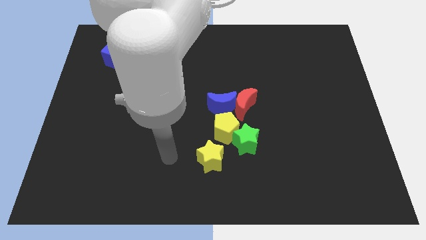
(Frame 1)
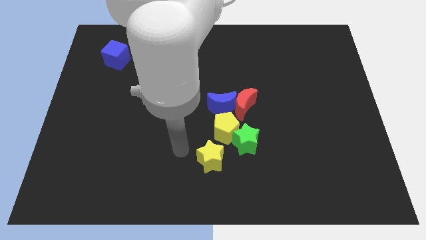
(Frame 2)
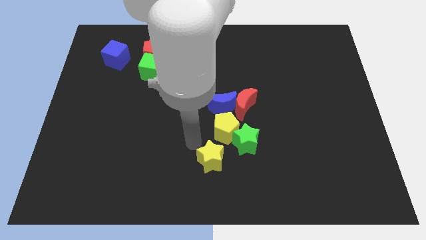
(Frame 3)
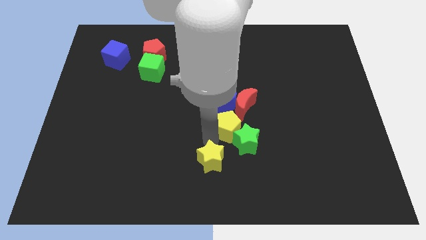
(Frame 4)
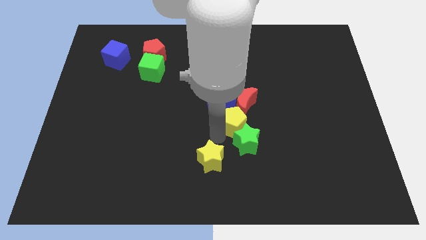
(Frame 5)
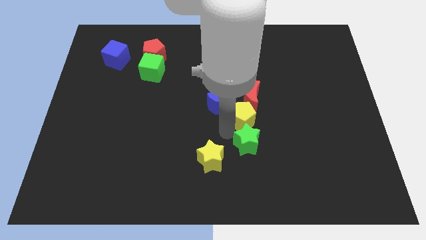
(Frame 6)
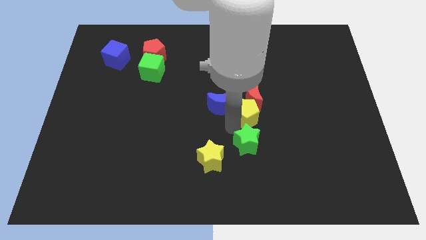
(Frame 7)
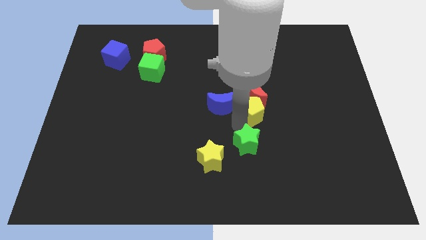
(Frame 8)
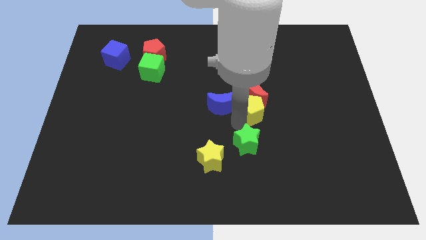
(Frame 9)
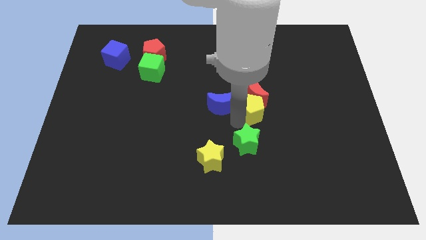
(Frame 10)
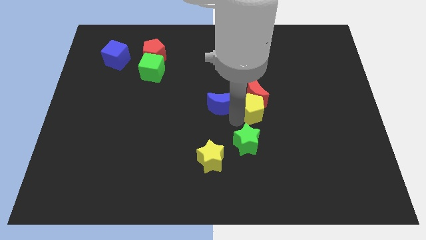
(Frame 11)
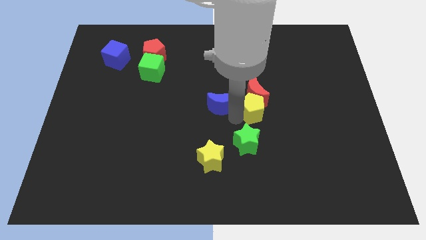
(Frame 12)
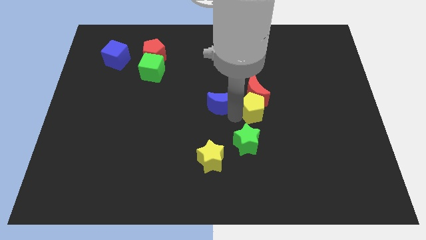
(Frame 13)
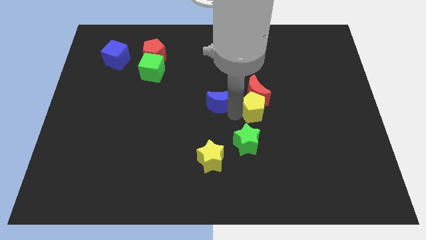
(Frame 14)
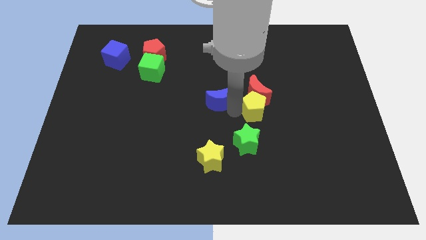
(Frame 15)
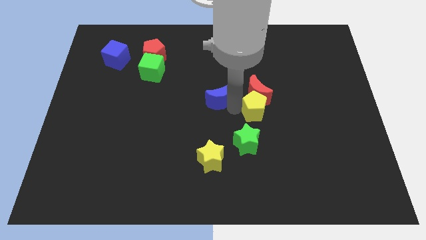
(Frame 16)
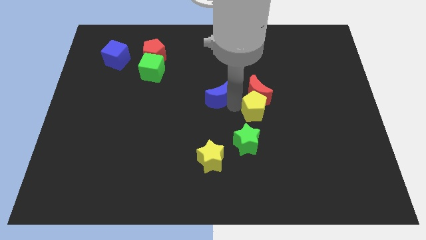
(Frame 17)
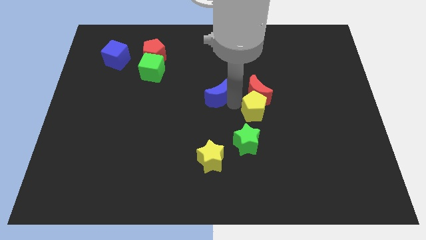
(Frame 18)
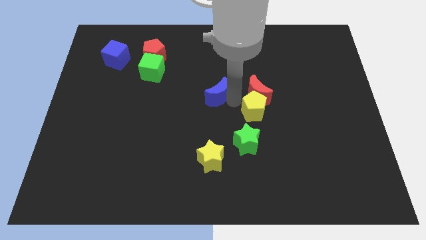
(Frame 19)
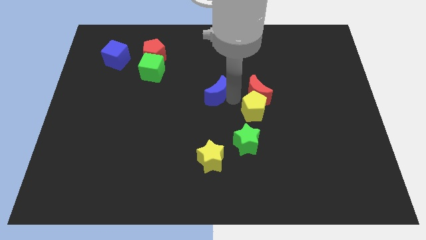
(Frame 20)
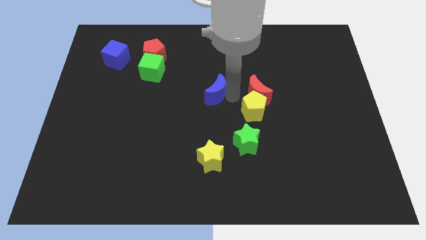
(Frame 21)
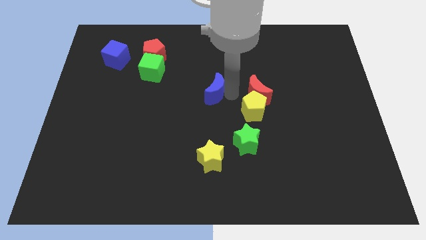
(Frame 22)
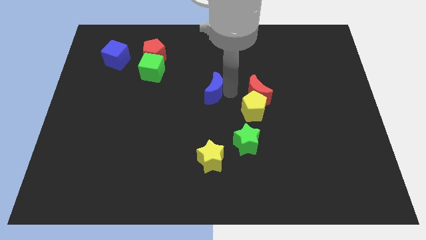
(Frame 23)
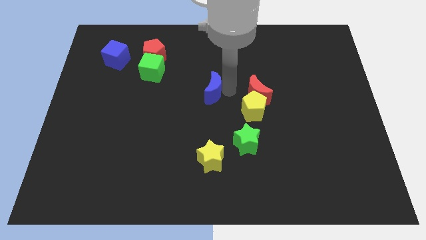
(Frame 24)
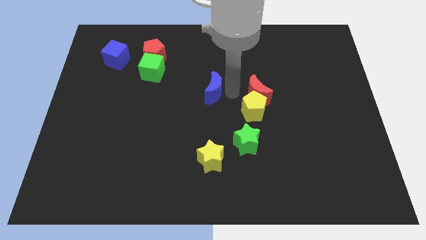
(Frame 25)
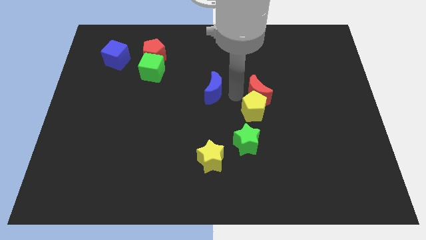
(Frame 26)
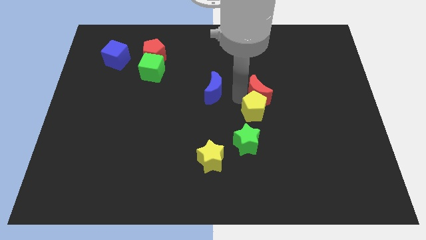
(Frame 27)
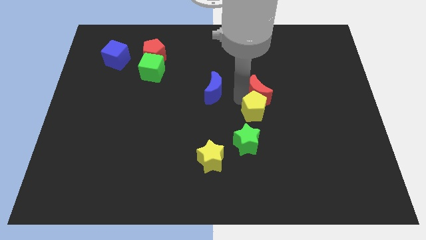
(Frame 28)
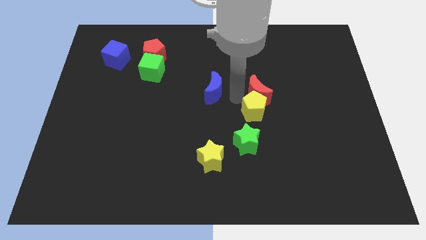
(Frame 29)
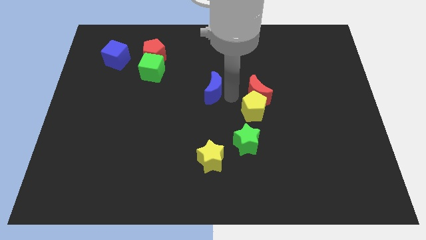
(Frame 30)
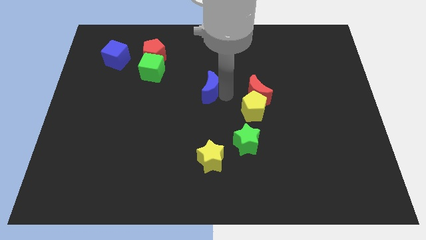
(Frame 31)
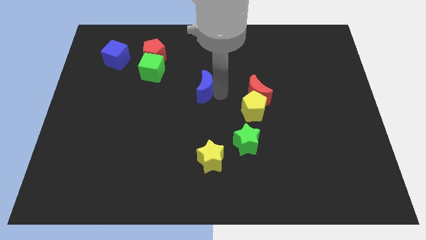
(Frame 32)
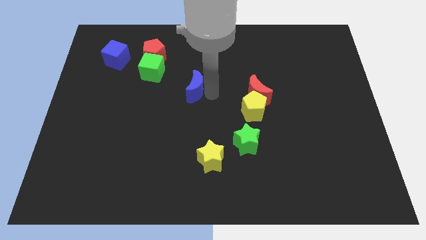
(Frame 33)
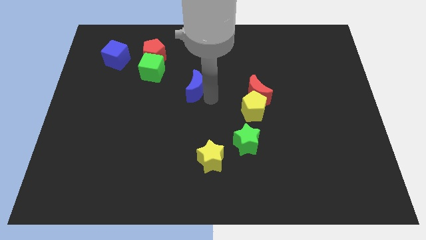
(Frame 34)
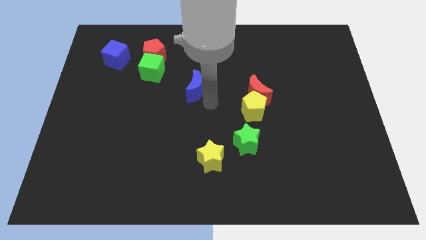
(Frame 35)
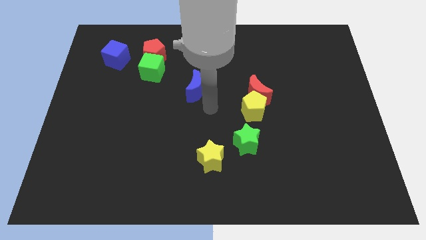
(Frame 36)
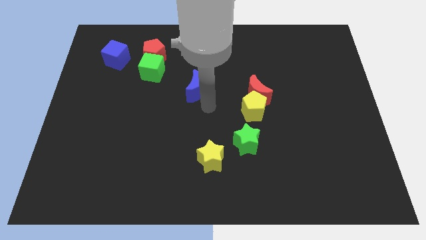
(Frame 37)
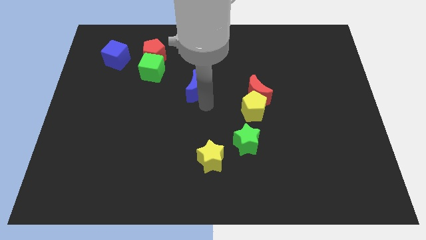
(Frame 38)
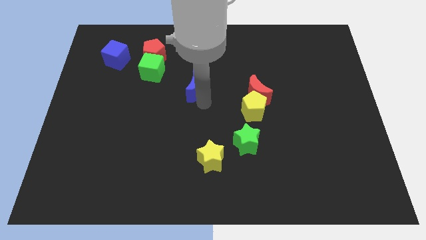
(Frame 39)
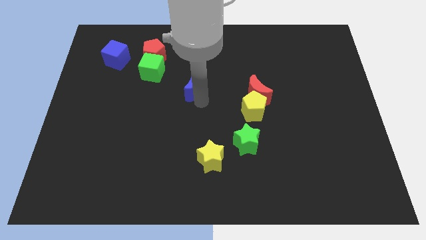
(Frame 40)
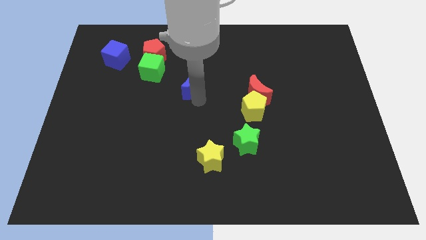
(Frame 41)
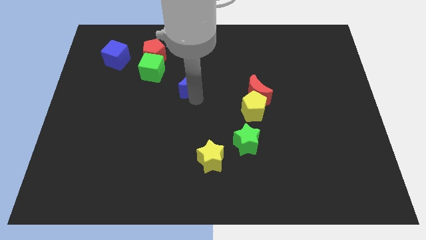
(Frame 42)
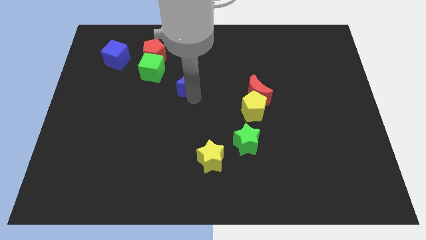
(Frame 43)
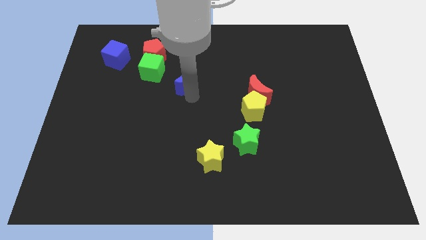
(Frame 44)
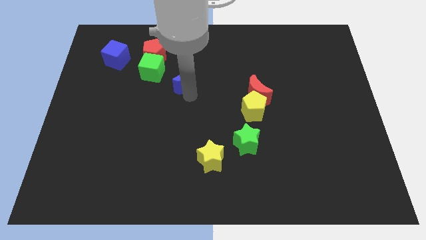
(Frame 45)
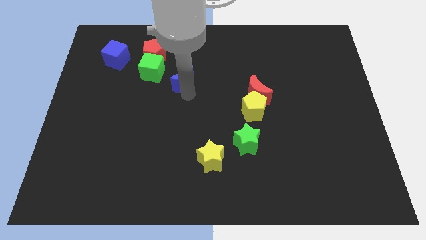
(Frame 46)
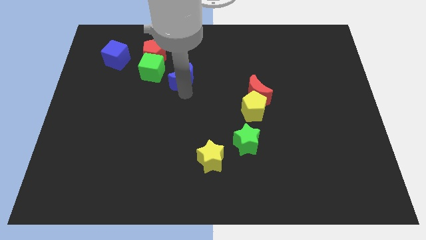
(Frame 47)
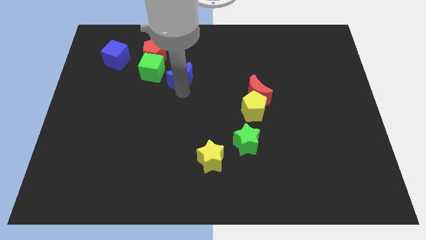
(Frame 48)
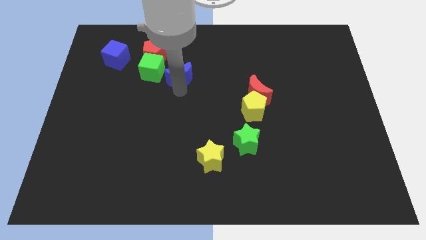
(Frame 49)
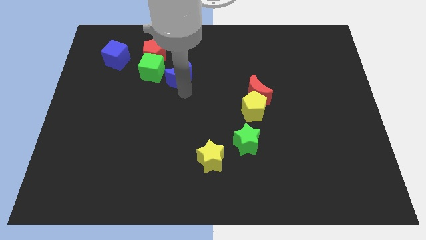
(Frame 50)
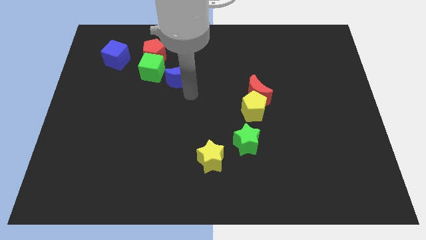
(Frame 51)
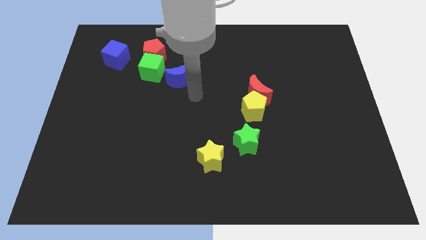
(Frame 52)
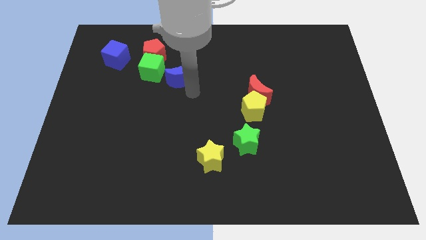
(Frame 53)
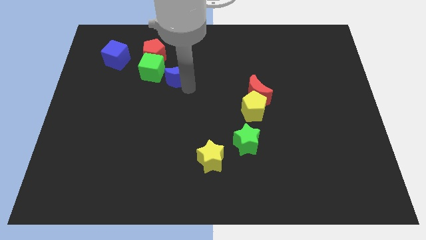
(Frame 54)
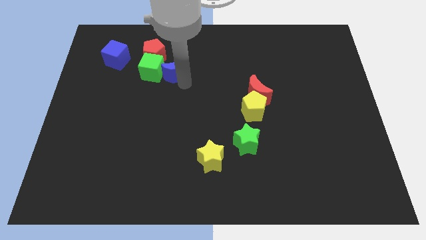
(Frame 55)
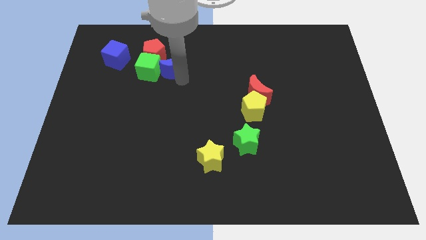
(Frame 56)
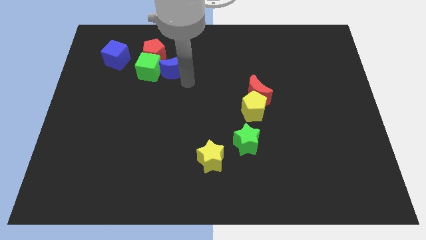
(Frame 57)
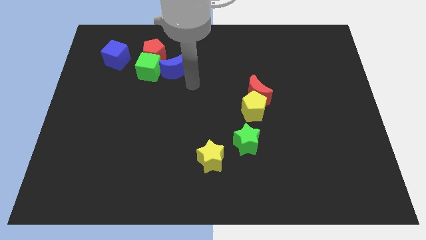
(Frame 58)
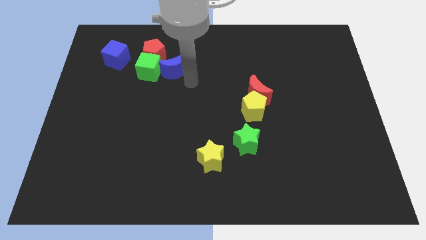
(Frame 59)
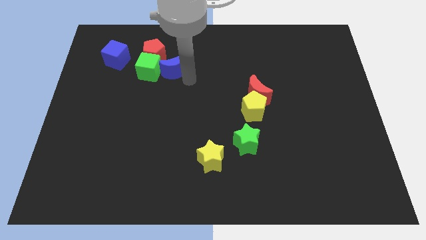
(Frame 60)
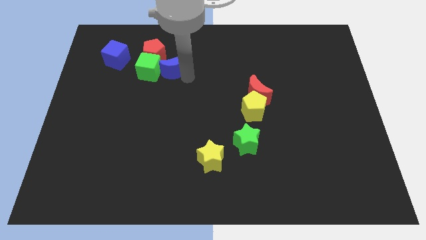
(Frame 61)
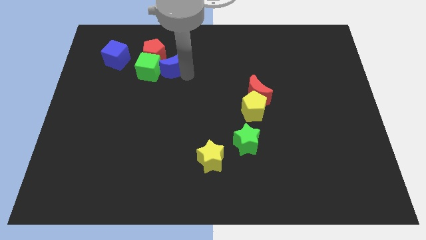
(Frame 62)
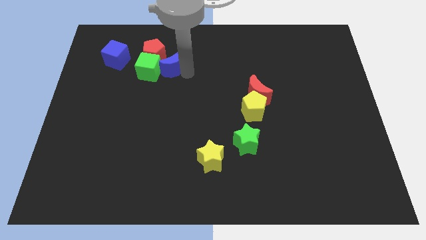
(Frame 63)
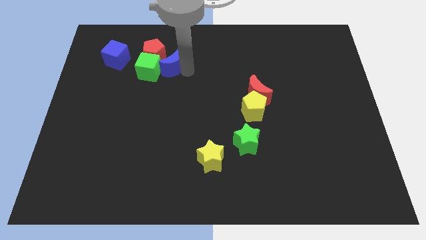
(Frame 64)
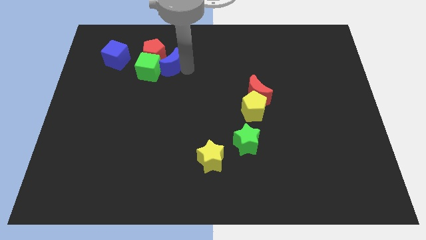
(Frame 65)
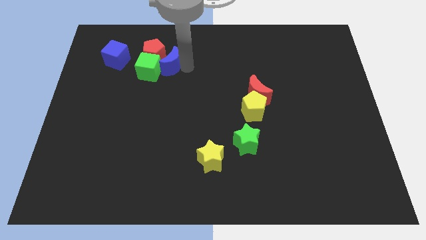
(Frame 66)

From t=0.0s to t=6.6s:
push the blue moon to the red pentagon
